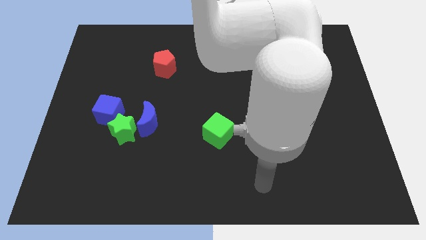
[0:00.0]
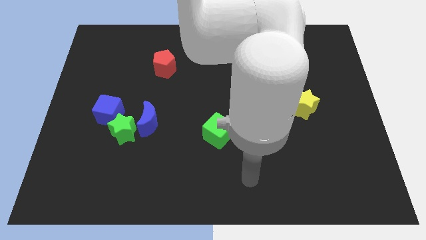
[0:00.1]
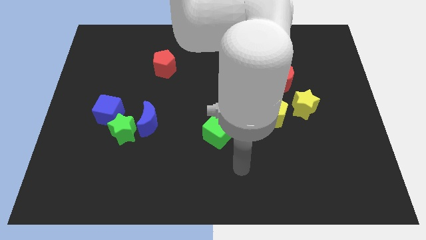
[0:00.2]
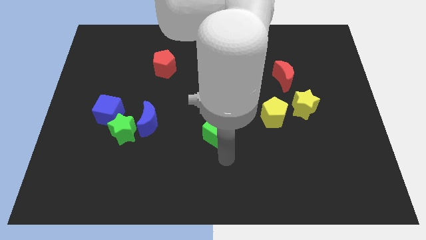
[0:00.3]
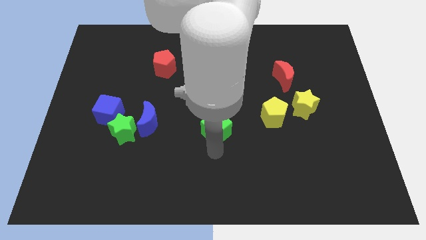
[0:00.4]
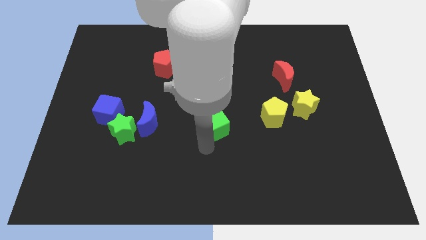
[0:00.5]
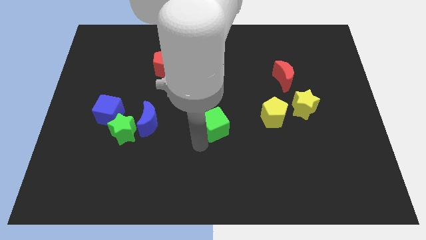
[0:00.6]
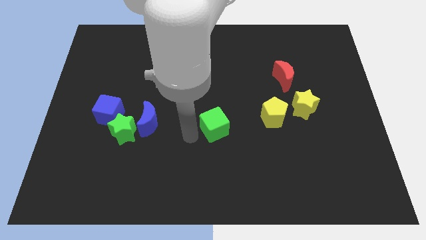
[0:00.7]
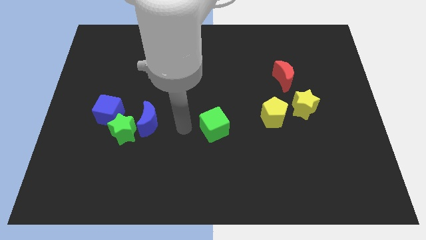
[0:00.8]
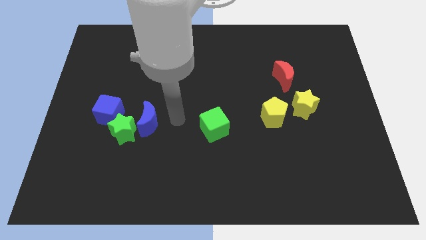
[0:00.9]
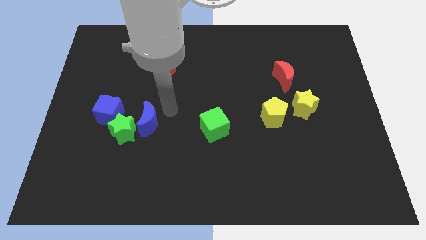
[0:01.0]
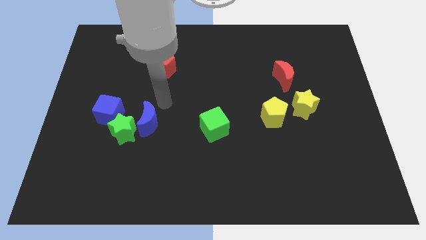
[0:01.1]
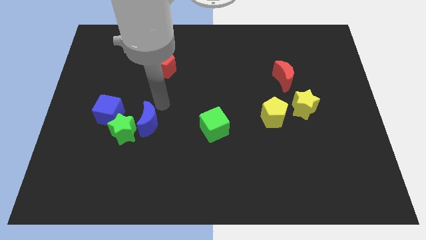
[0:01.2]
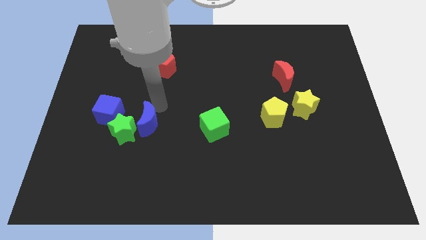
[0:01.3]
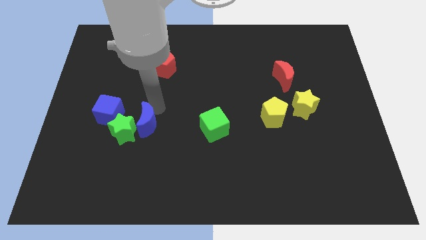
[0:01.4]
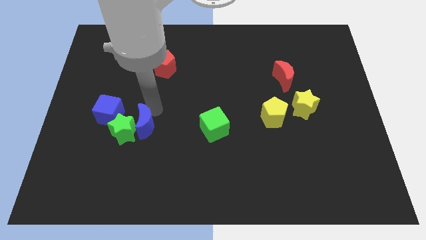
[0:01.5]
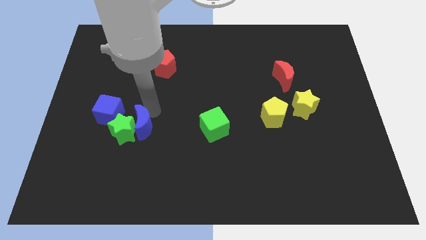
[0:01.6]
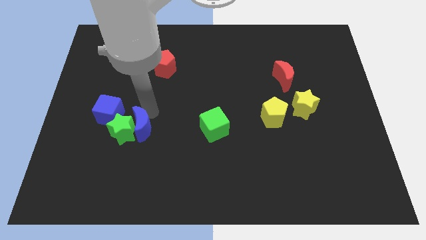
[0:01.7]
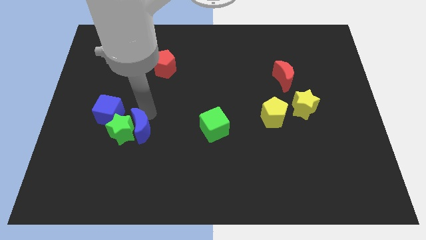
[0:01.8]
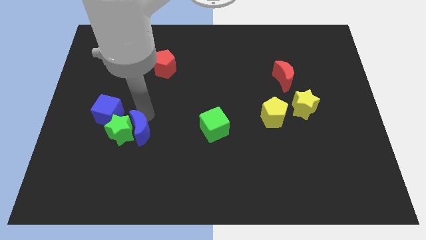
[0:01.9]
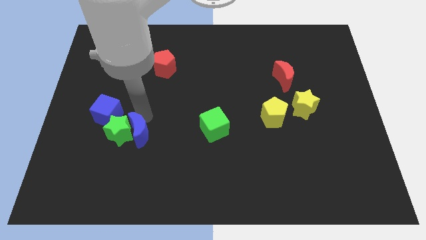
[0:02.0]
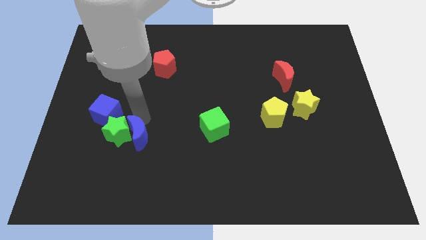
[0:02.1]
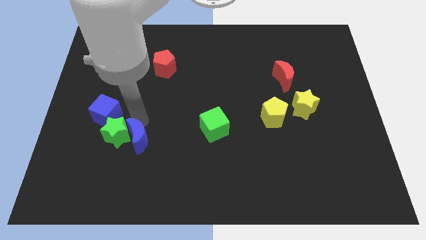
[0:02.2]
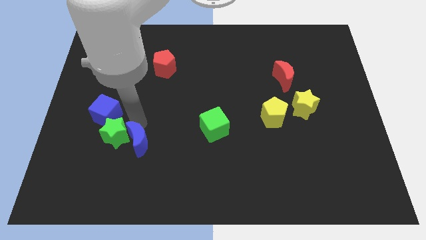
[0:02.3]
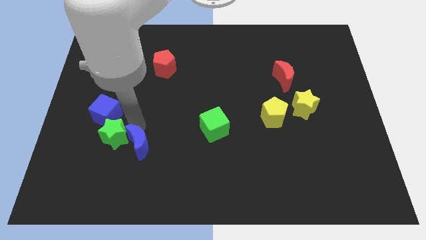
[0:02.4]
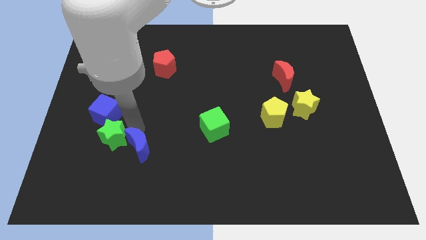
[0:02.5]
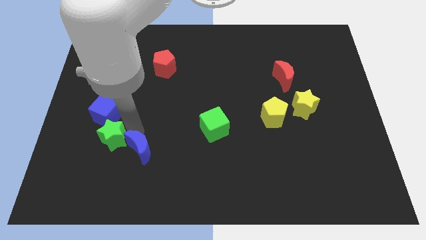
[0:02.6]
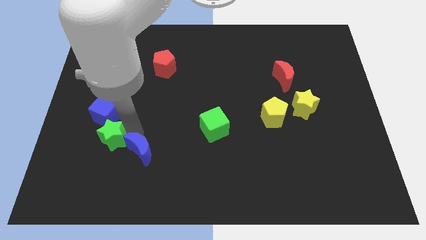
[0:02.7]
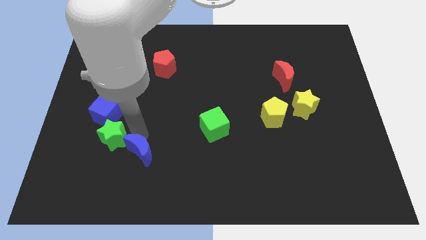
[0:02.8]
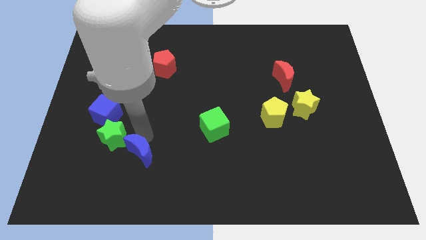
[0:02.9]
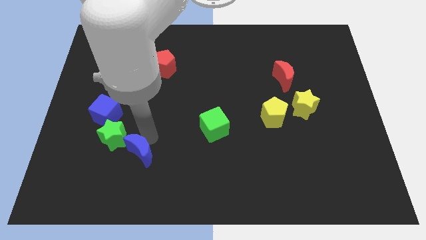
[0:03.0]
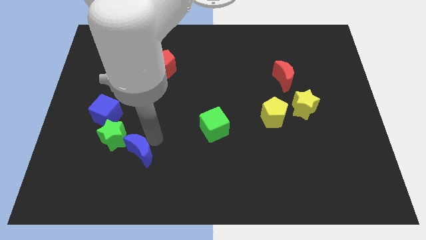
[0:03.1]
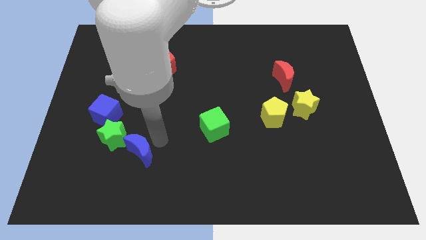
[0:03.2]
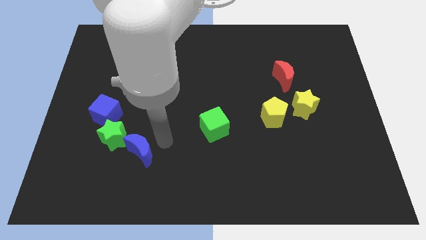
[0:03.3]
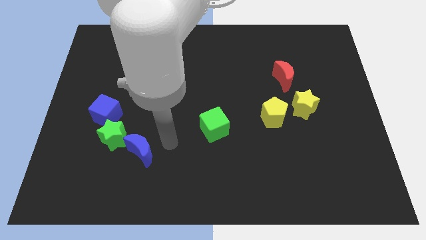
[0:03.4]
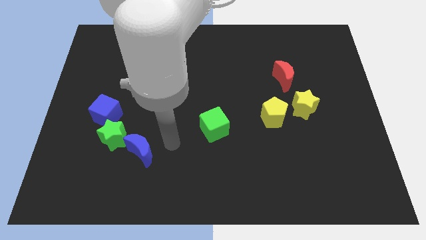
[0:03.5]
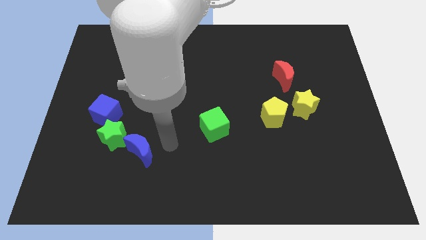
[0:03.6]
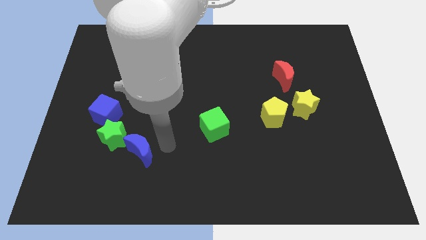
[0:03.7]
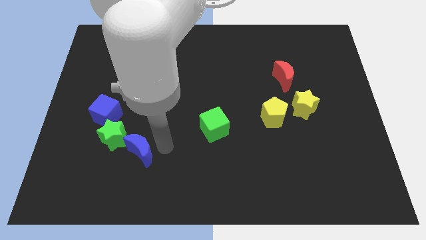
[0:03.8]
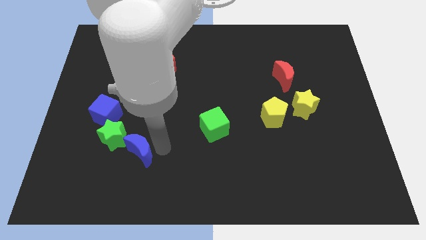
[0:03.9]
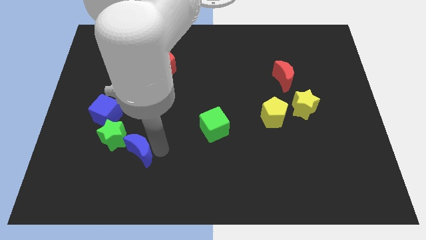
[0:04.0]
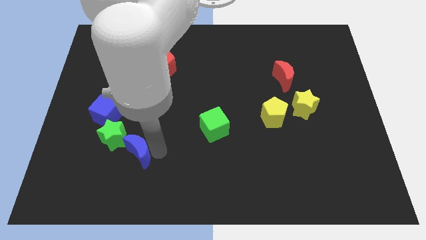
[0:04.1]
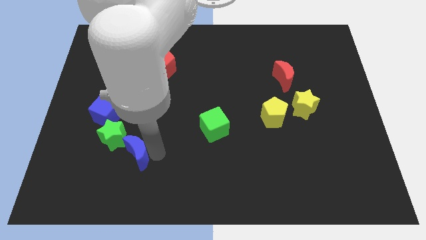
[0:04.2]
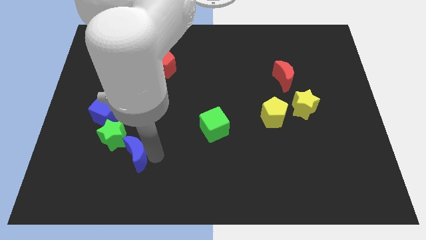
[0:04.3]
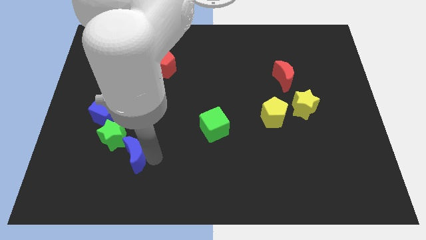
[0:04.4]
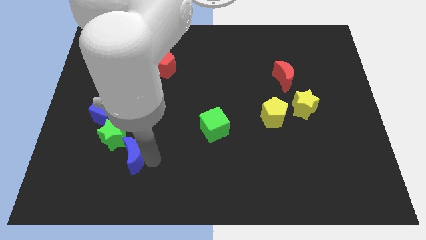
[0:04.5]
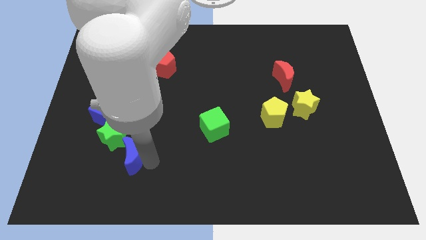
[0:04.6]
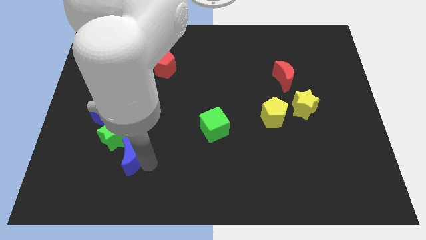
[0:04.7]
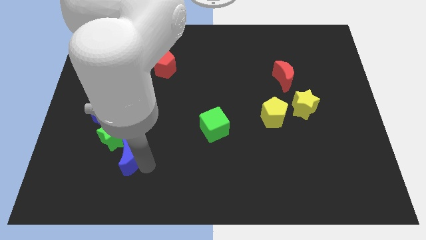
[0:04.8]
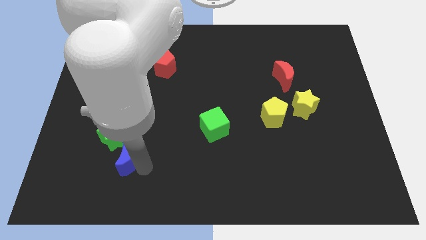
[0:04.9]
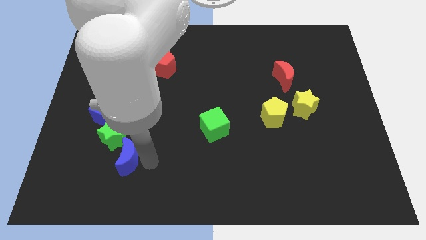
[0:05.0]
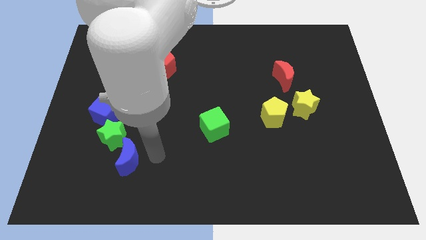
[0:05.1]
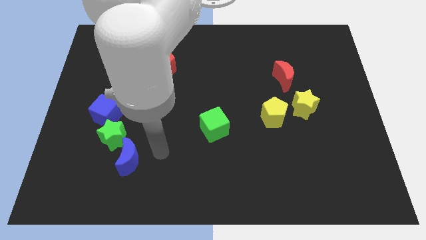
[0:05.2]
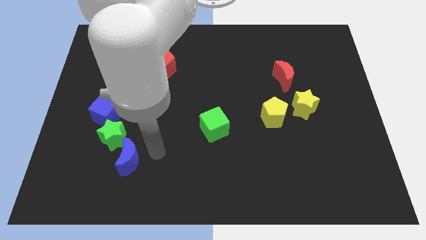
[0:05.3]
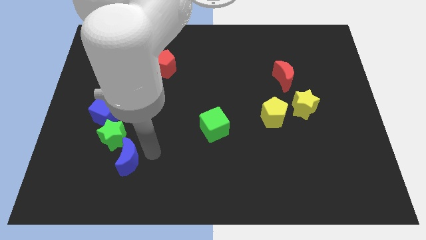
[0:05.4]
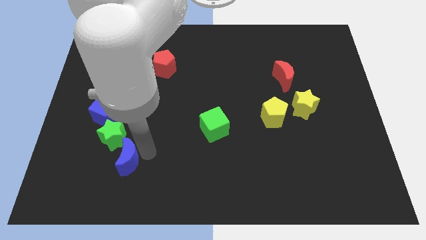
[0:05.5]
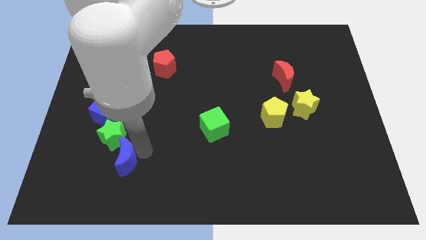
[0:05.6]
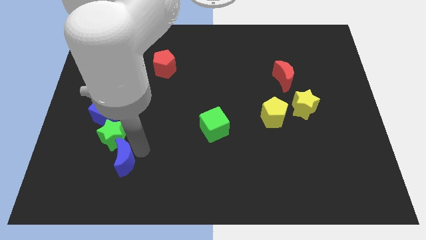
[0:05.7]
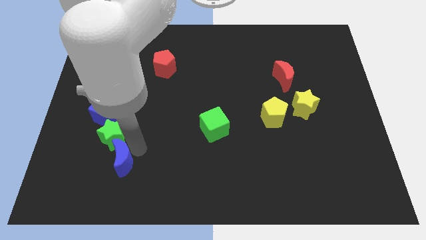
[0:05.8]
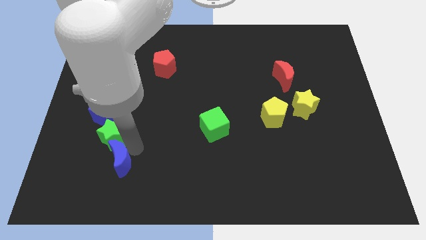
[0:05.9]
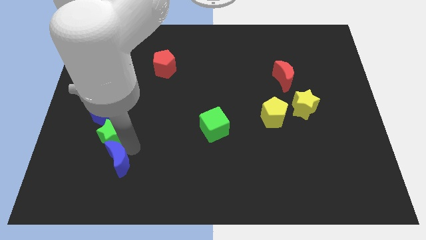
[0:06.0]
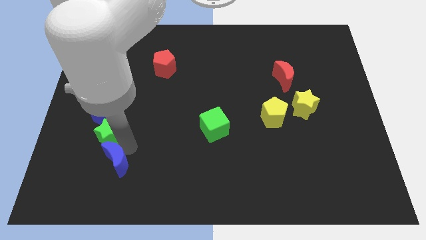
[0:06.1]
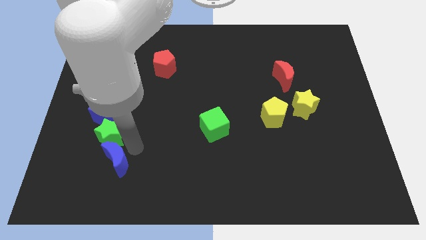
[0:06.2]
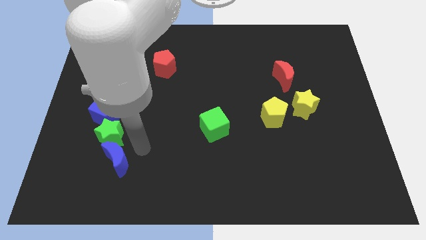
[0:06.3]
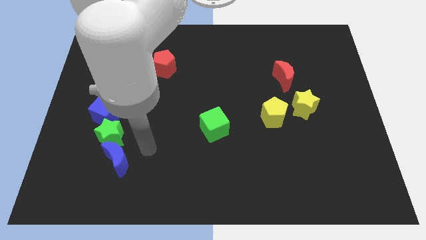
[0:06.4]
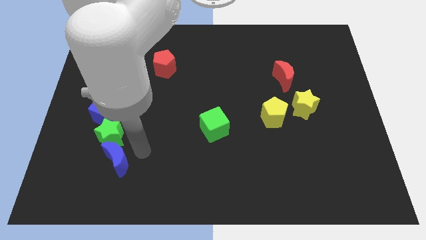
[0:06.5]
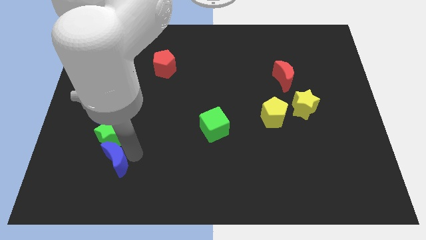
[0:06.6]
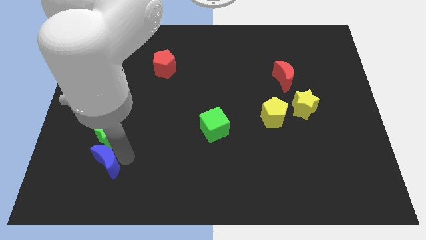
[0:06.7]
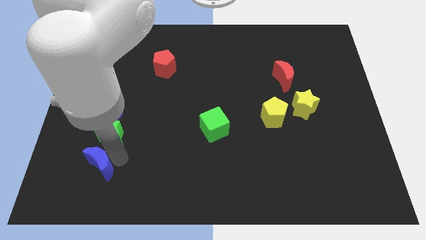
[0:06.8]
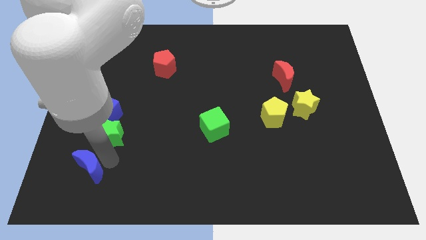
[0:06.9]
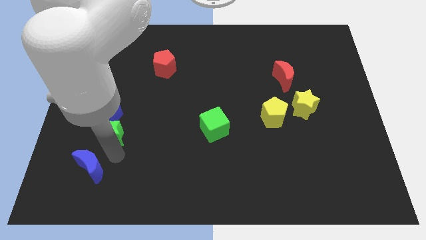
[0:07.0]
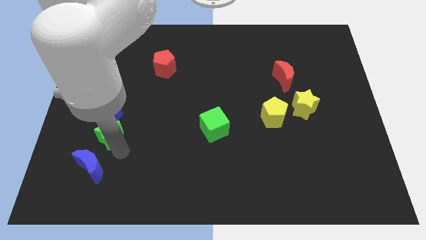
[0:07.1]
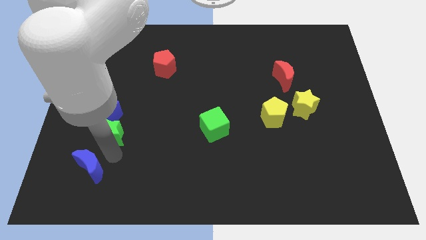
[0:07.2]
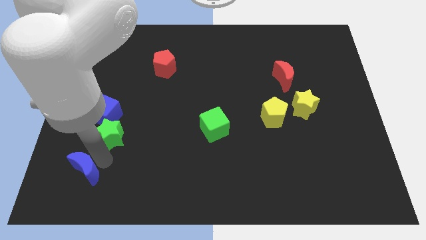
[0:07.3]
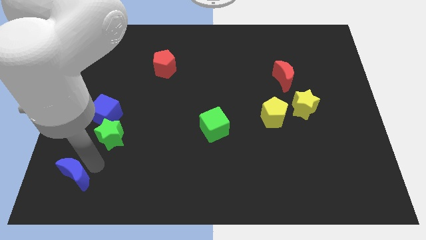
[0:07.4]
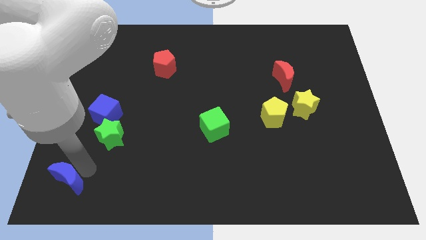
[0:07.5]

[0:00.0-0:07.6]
slide the blue moon to the bottom left corner
